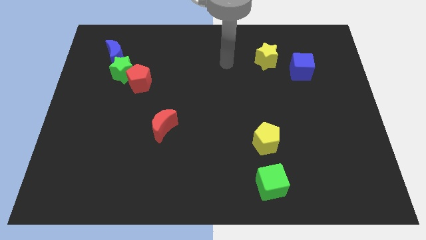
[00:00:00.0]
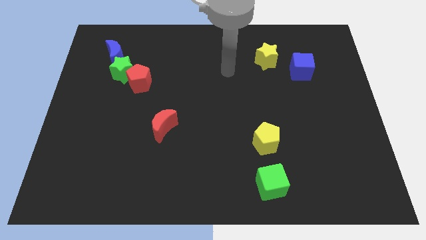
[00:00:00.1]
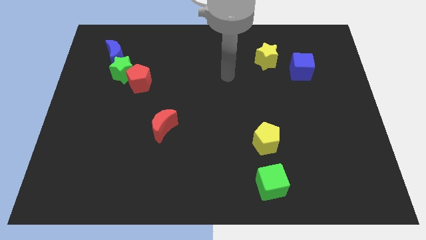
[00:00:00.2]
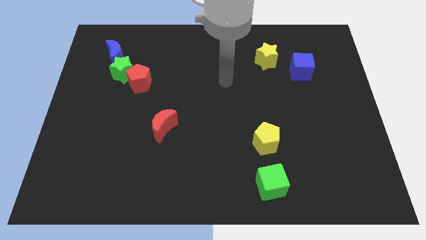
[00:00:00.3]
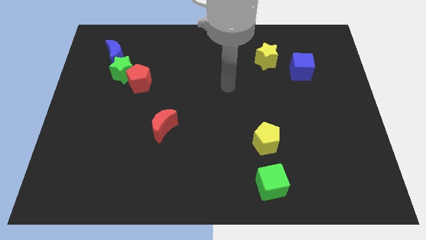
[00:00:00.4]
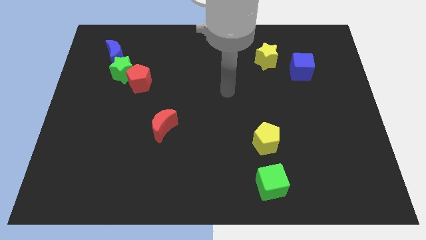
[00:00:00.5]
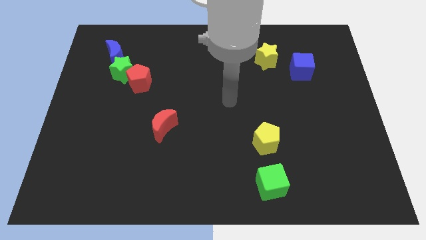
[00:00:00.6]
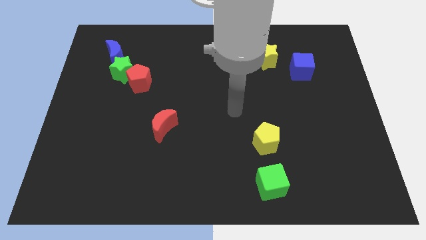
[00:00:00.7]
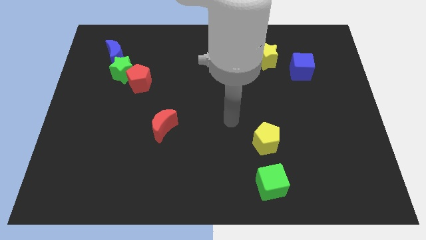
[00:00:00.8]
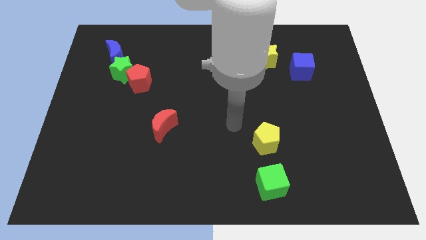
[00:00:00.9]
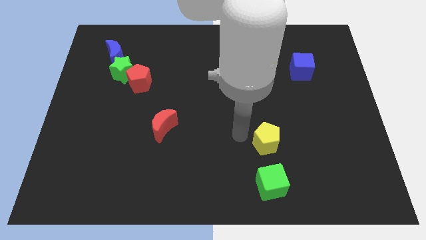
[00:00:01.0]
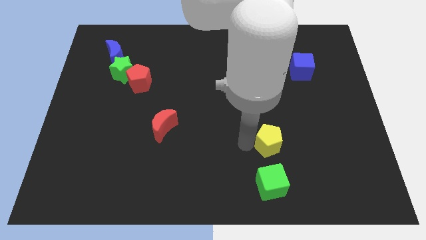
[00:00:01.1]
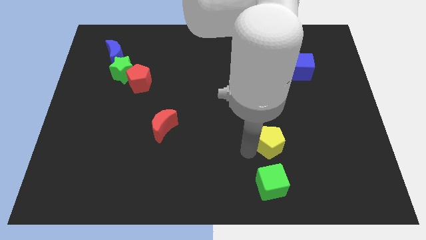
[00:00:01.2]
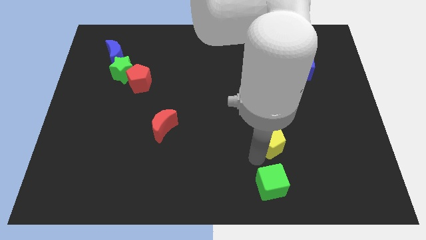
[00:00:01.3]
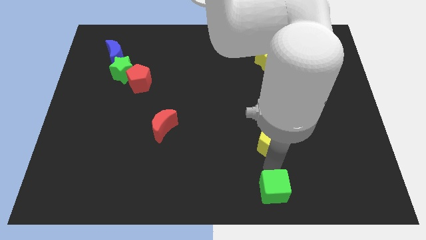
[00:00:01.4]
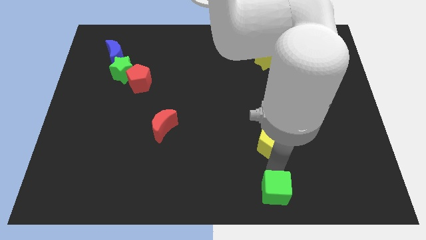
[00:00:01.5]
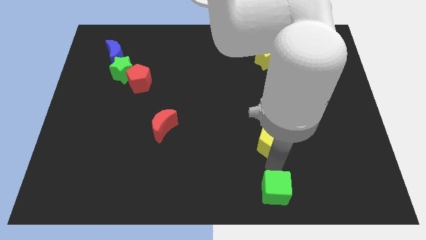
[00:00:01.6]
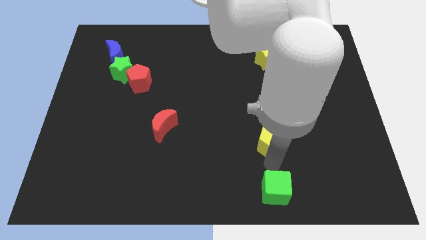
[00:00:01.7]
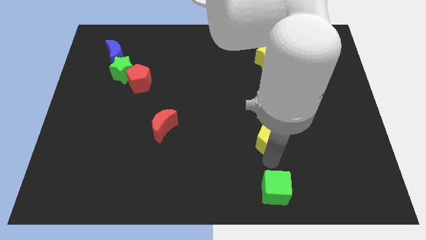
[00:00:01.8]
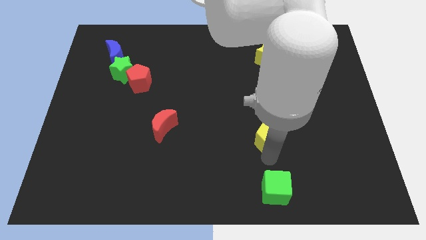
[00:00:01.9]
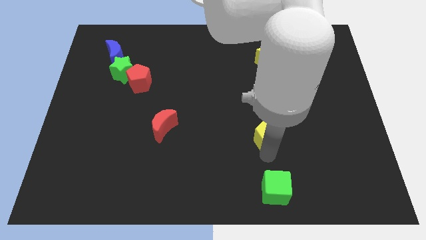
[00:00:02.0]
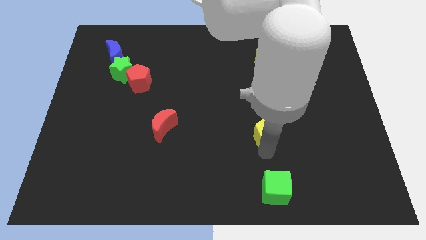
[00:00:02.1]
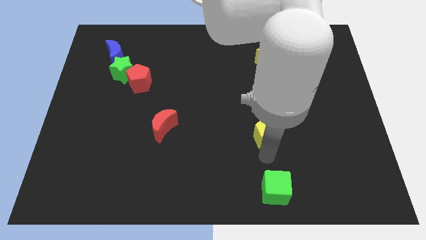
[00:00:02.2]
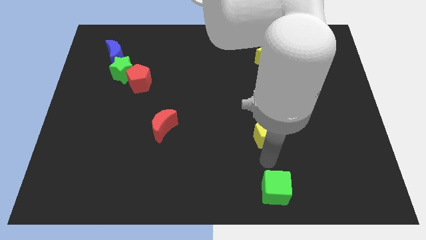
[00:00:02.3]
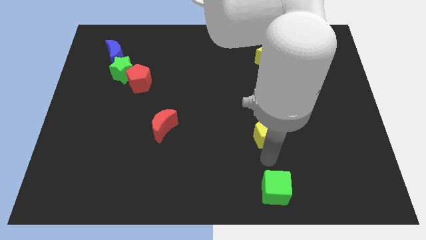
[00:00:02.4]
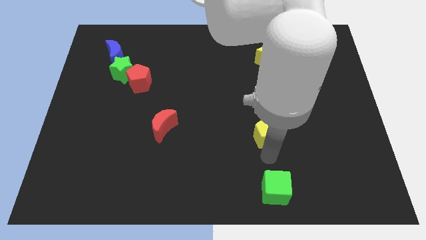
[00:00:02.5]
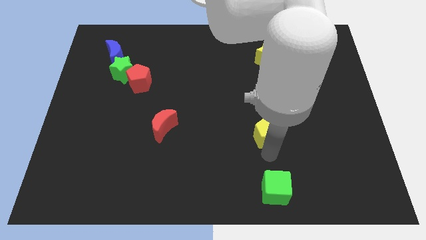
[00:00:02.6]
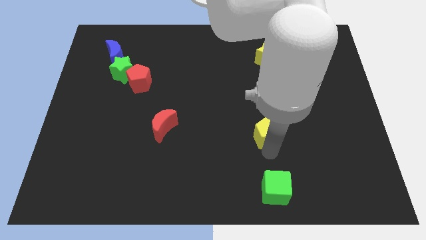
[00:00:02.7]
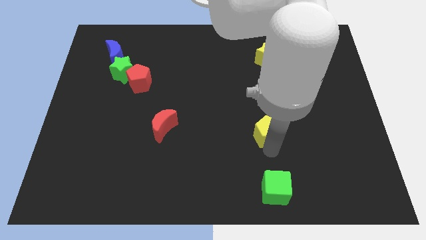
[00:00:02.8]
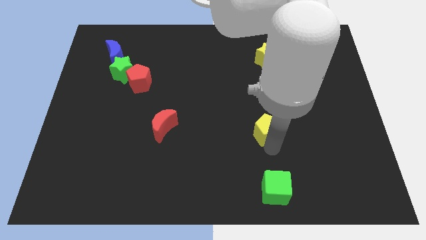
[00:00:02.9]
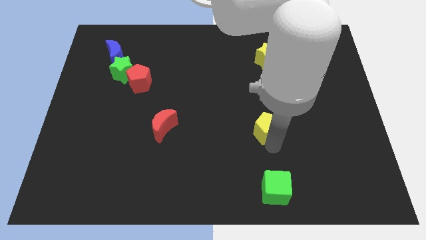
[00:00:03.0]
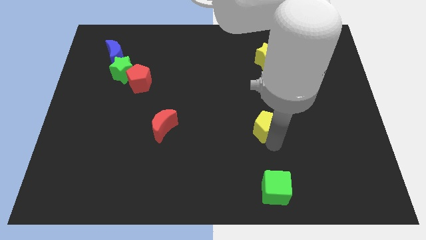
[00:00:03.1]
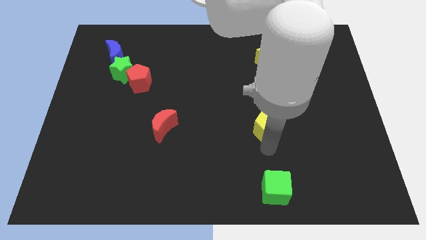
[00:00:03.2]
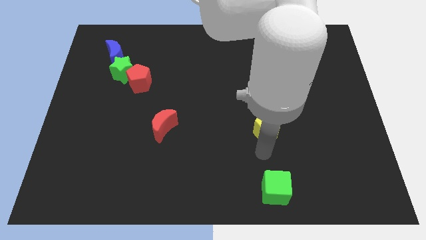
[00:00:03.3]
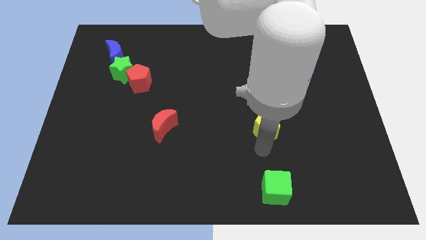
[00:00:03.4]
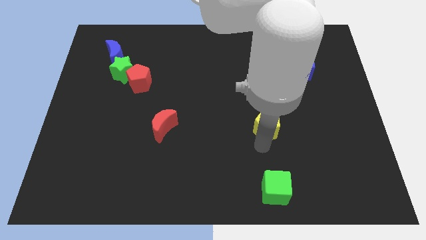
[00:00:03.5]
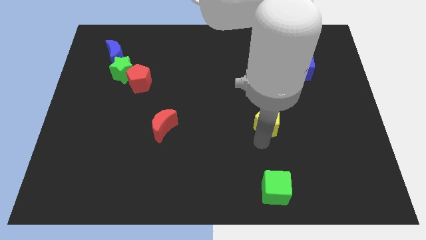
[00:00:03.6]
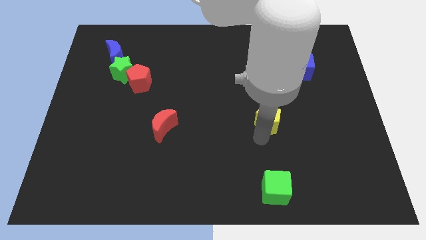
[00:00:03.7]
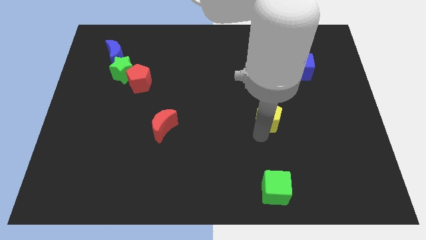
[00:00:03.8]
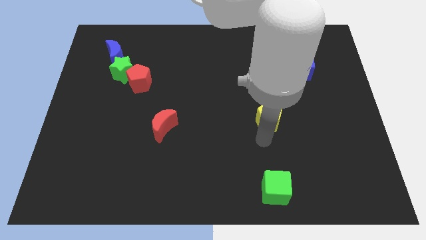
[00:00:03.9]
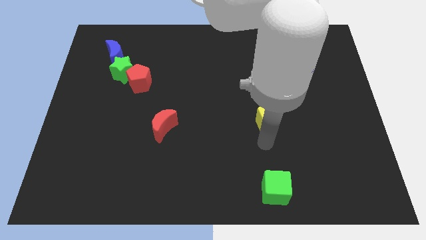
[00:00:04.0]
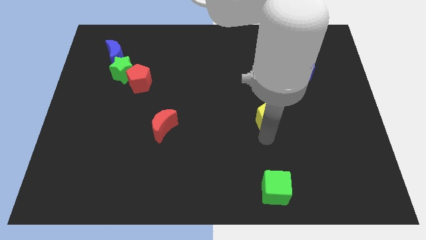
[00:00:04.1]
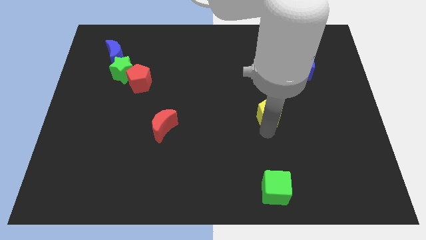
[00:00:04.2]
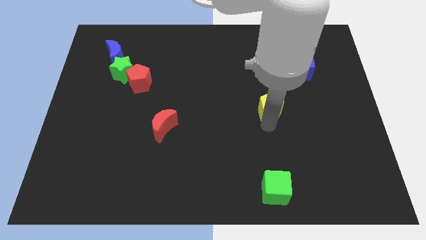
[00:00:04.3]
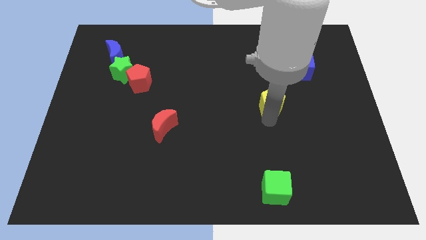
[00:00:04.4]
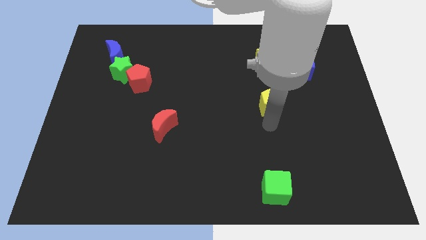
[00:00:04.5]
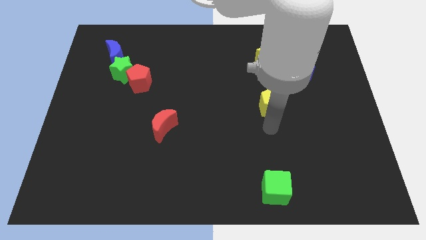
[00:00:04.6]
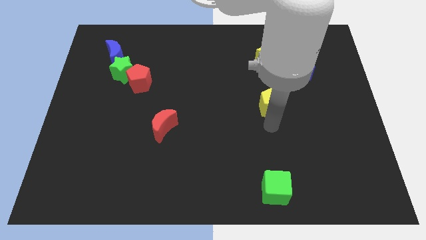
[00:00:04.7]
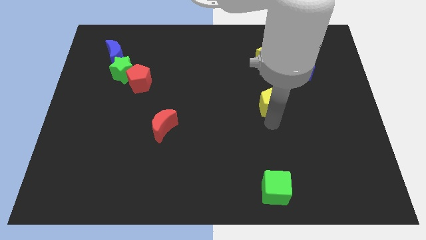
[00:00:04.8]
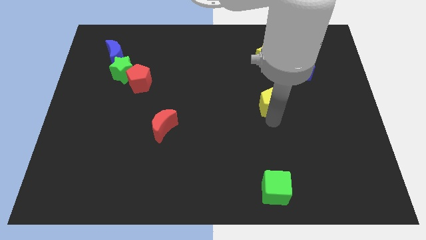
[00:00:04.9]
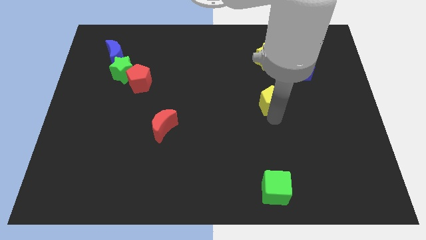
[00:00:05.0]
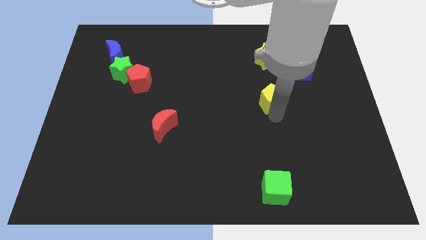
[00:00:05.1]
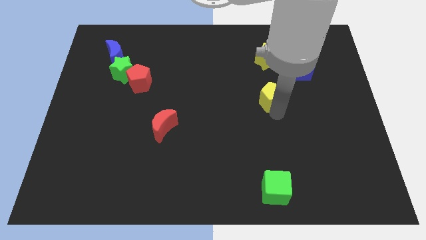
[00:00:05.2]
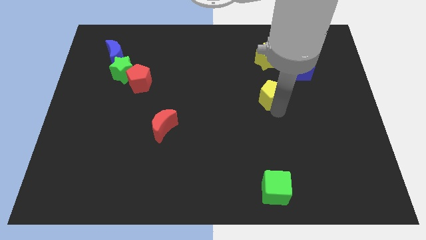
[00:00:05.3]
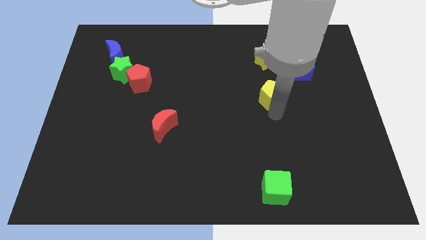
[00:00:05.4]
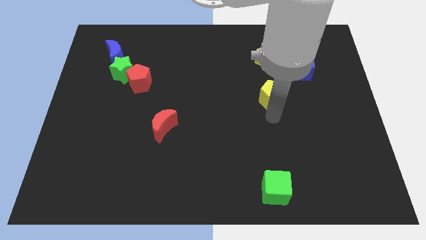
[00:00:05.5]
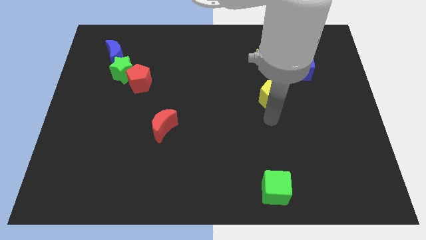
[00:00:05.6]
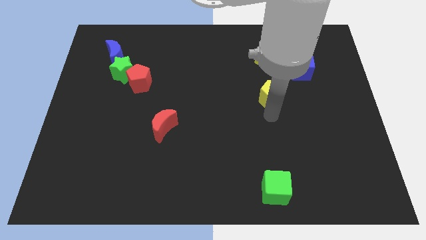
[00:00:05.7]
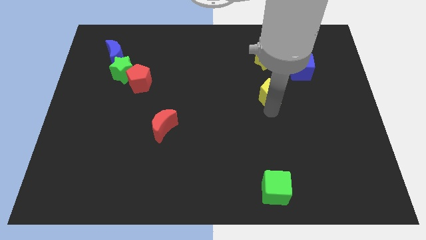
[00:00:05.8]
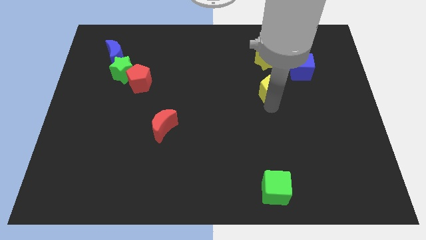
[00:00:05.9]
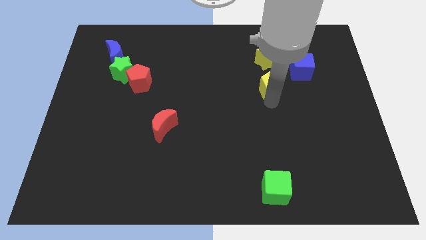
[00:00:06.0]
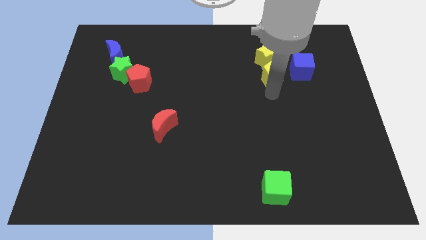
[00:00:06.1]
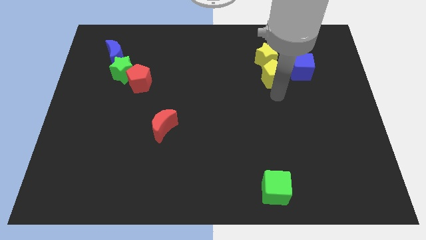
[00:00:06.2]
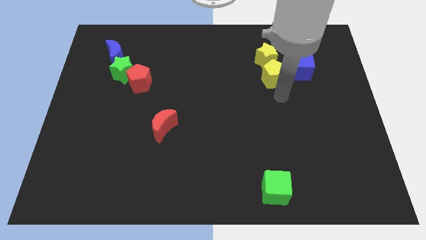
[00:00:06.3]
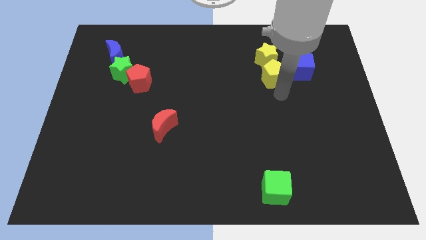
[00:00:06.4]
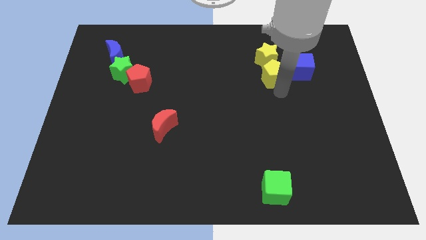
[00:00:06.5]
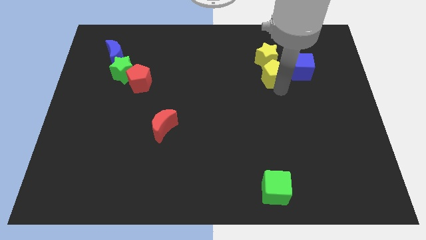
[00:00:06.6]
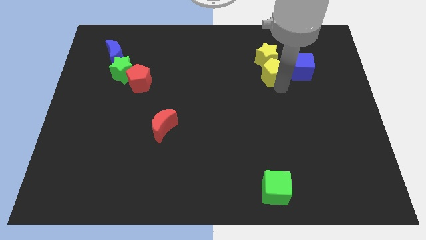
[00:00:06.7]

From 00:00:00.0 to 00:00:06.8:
push the yellow pentagon next to the yellow star
